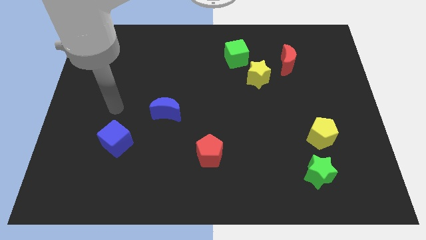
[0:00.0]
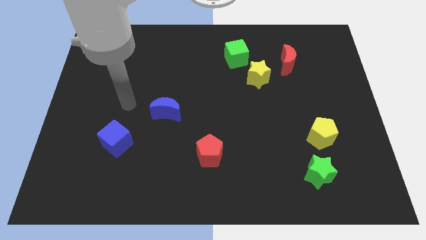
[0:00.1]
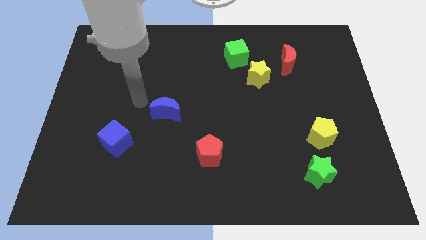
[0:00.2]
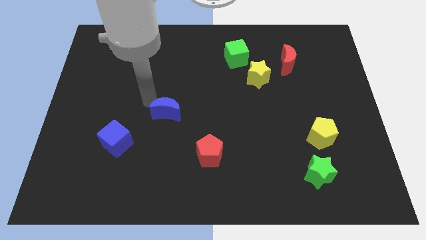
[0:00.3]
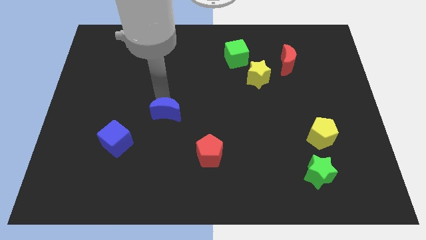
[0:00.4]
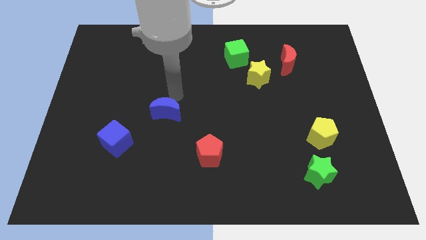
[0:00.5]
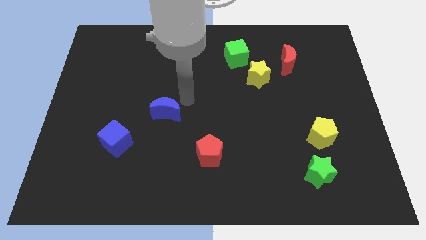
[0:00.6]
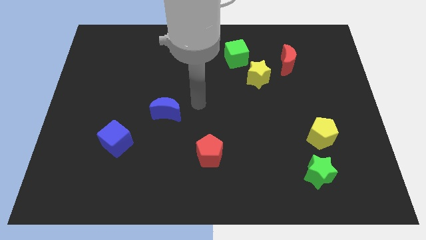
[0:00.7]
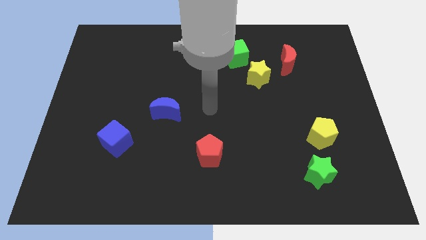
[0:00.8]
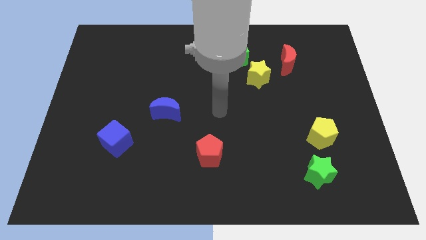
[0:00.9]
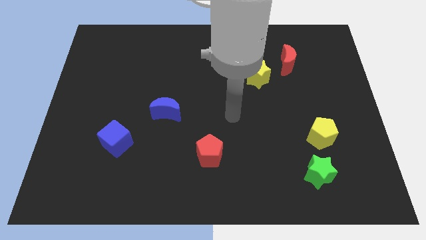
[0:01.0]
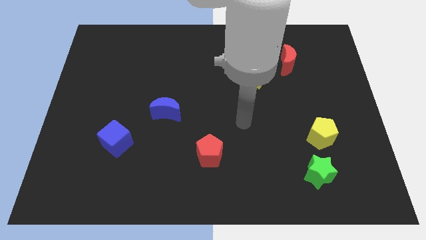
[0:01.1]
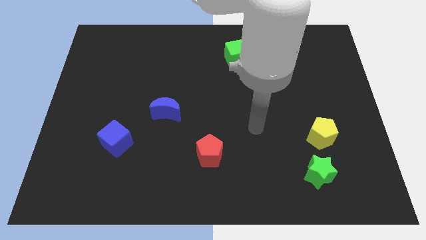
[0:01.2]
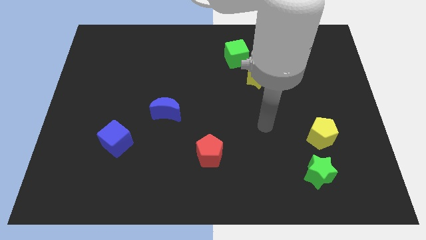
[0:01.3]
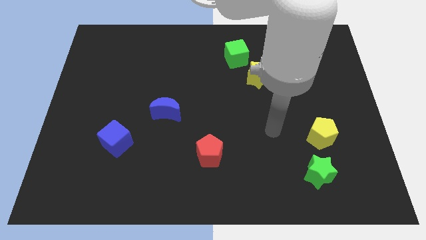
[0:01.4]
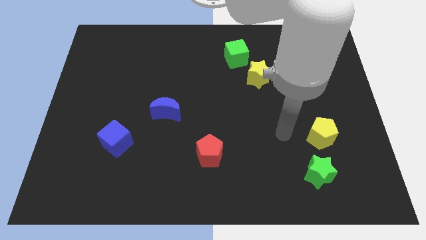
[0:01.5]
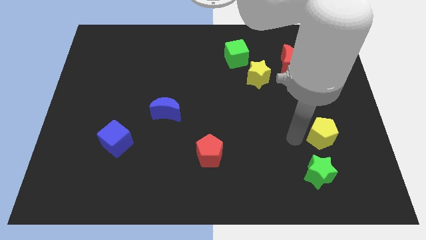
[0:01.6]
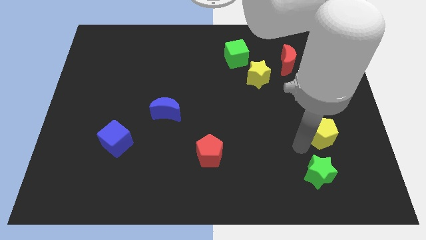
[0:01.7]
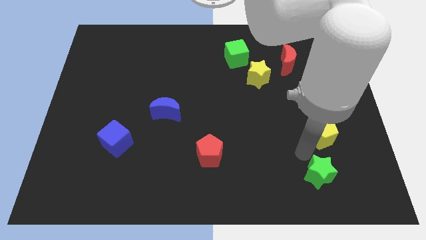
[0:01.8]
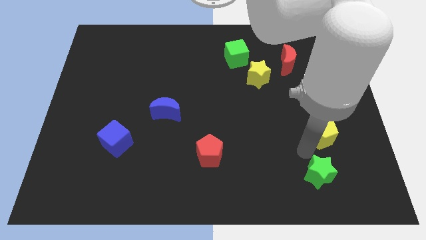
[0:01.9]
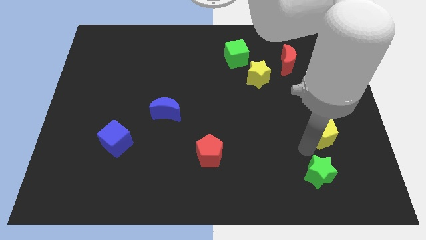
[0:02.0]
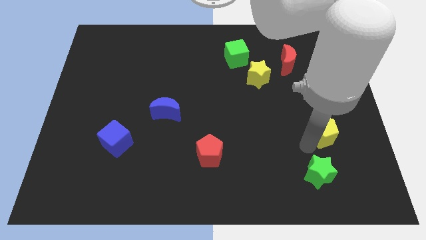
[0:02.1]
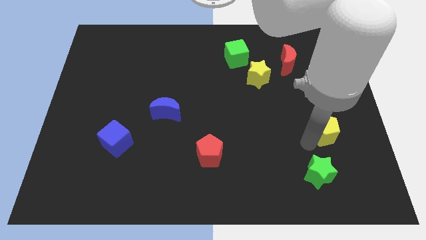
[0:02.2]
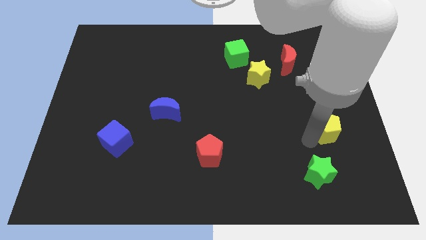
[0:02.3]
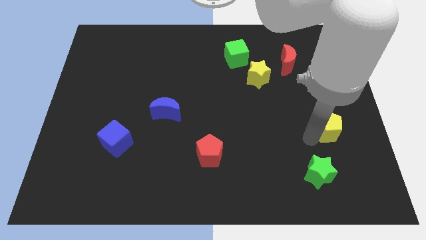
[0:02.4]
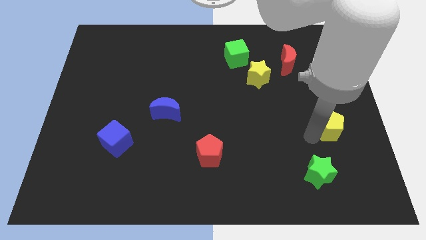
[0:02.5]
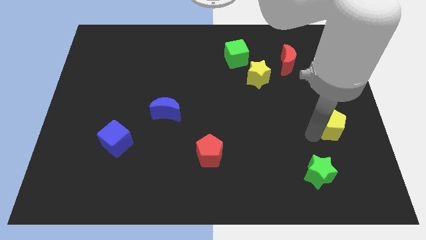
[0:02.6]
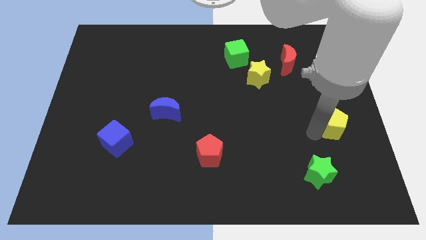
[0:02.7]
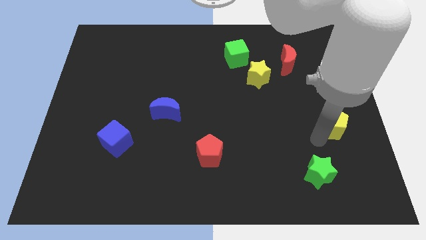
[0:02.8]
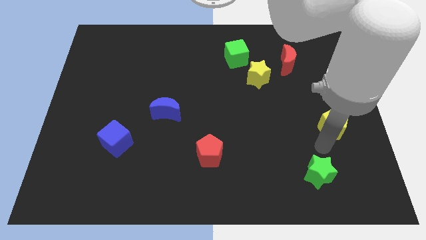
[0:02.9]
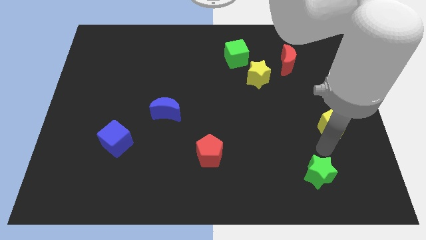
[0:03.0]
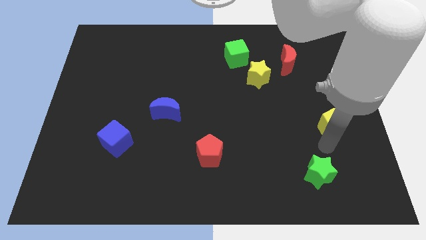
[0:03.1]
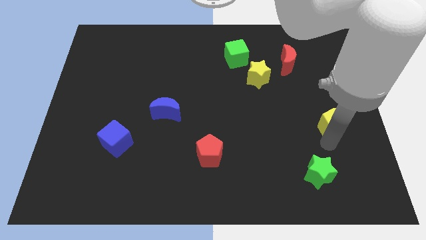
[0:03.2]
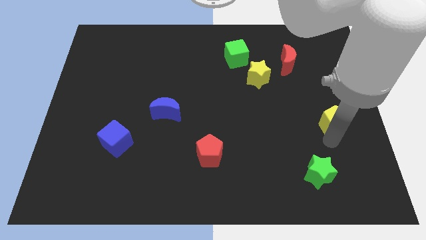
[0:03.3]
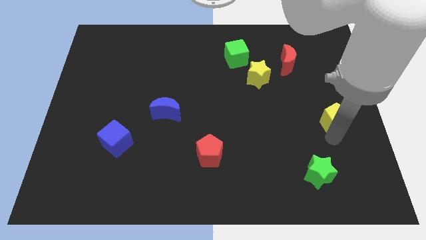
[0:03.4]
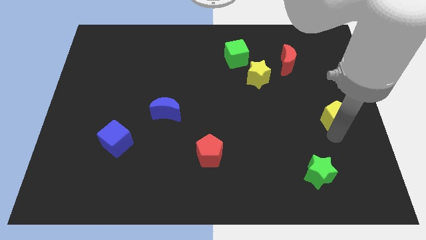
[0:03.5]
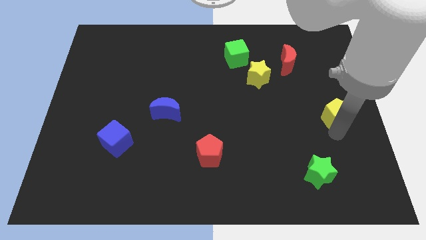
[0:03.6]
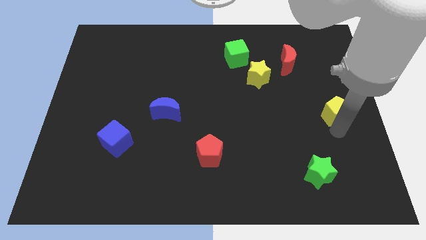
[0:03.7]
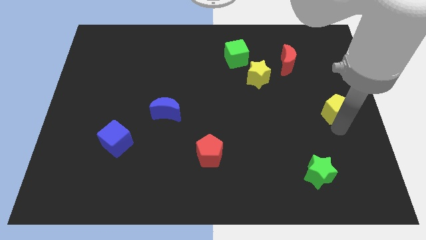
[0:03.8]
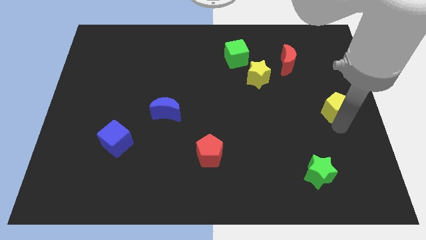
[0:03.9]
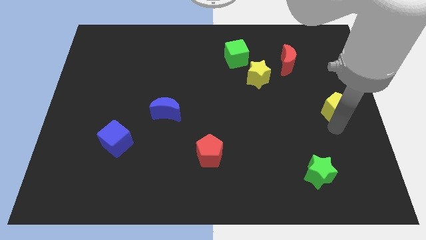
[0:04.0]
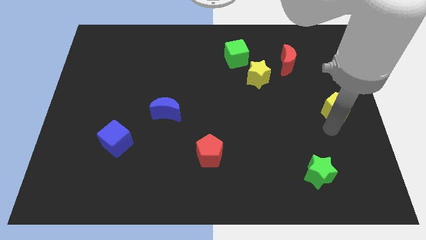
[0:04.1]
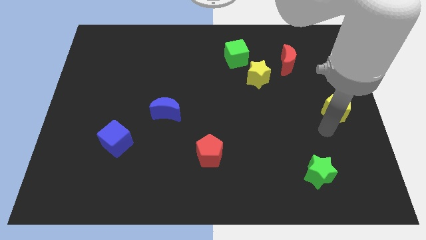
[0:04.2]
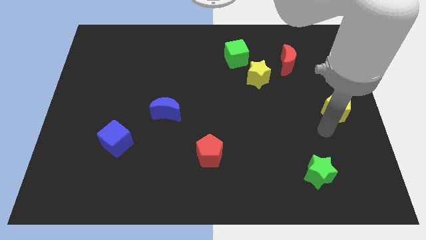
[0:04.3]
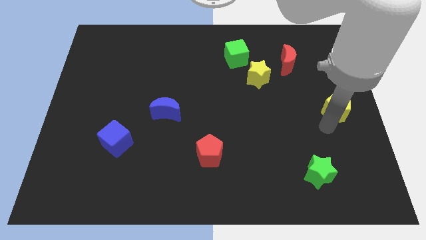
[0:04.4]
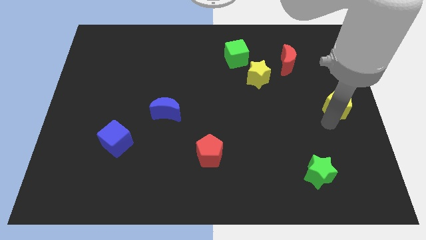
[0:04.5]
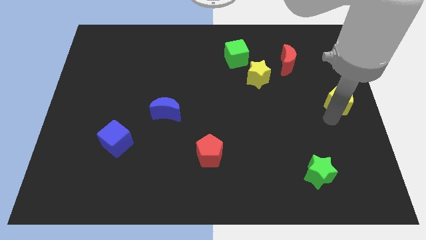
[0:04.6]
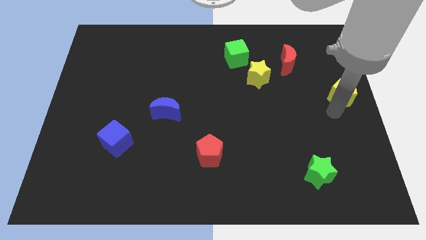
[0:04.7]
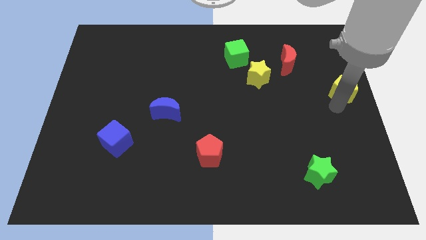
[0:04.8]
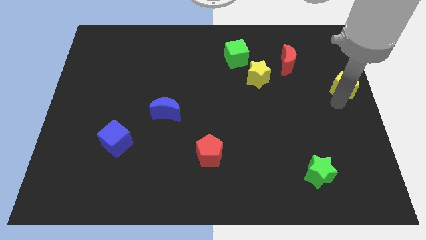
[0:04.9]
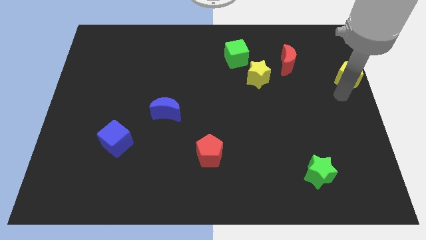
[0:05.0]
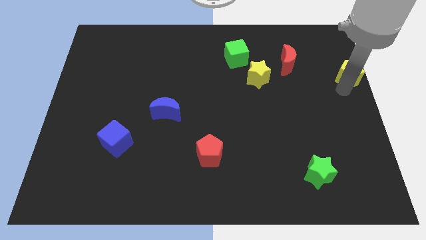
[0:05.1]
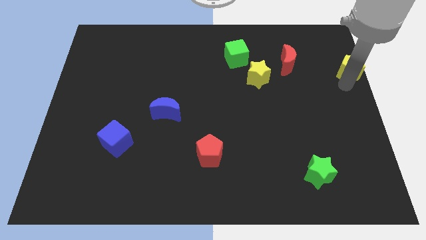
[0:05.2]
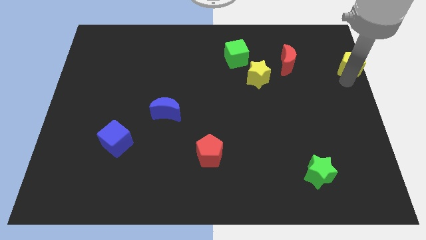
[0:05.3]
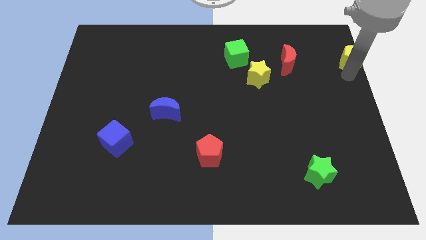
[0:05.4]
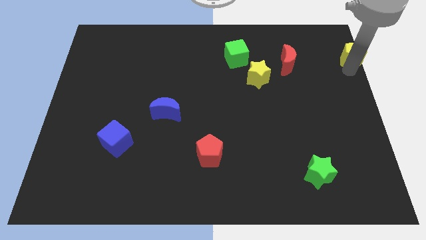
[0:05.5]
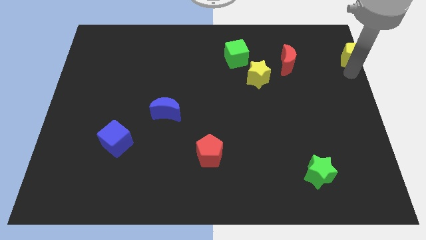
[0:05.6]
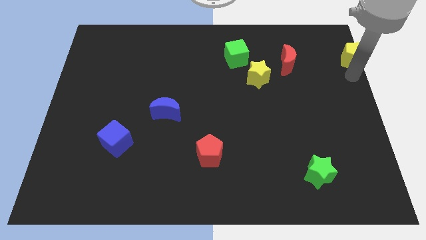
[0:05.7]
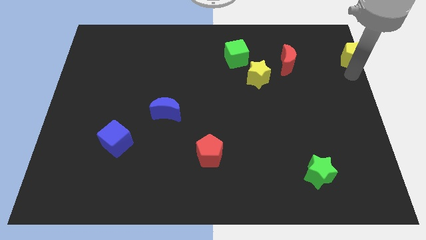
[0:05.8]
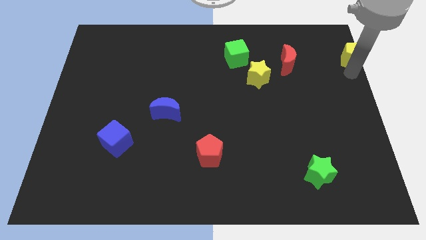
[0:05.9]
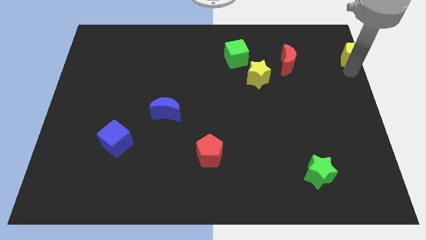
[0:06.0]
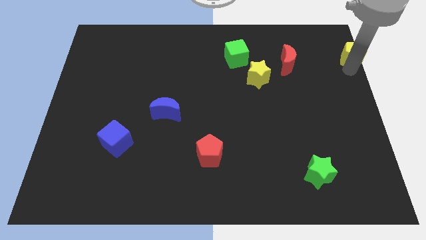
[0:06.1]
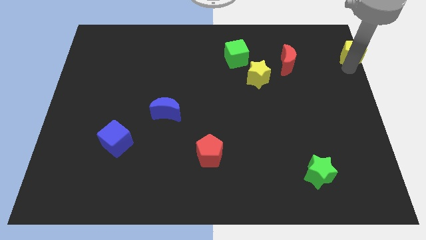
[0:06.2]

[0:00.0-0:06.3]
move the yellow pentagon to the upper right corner
